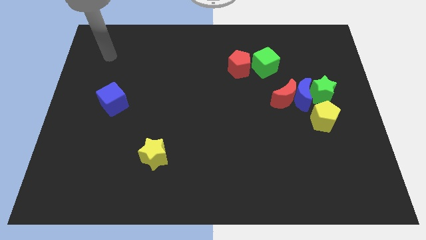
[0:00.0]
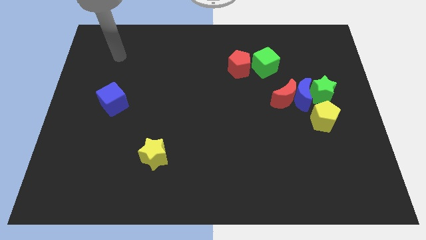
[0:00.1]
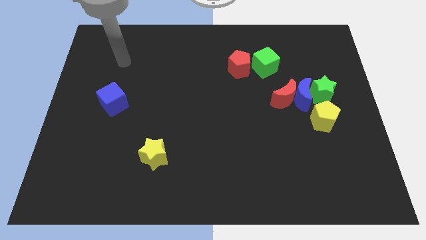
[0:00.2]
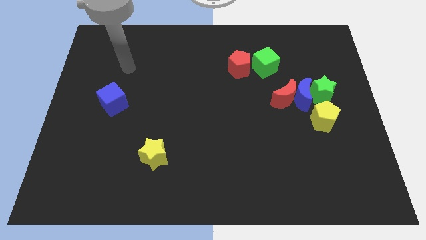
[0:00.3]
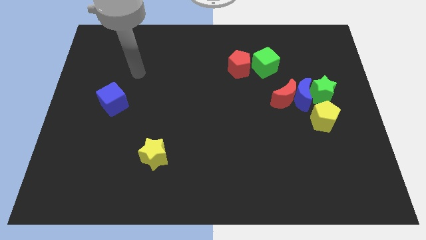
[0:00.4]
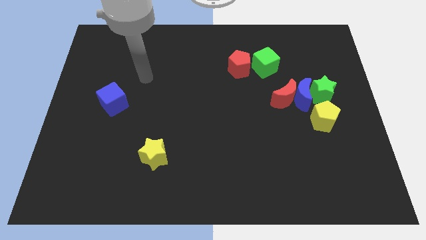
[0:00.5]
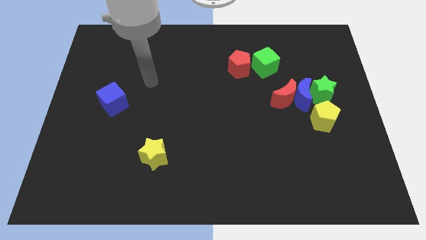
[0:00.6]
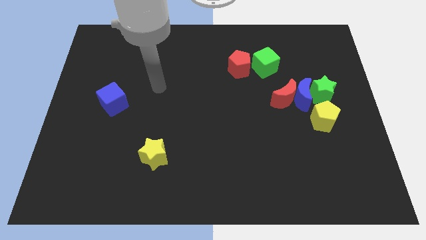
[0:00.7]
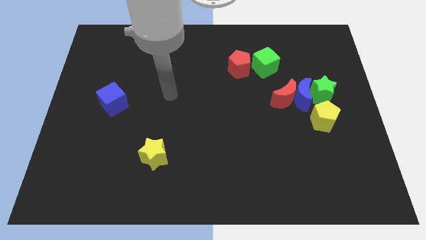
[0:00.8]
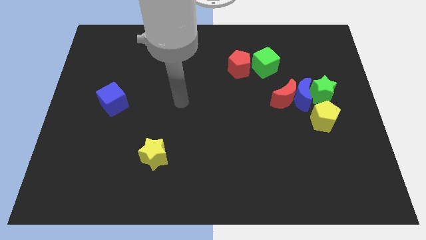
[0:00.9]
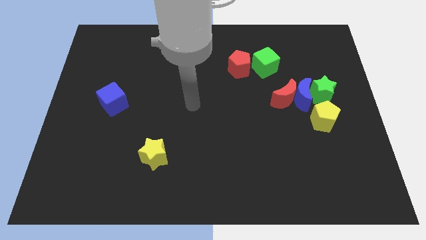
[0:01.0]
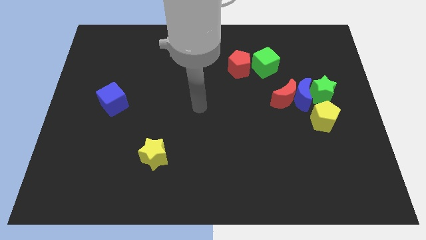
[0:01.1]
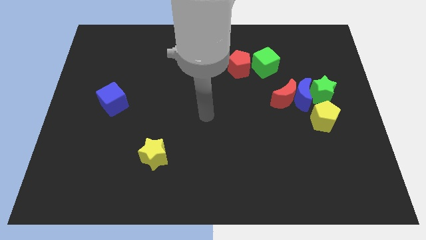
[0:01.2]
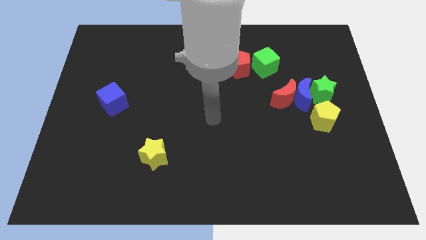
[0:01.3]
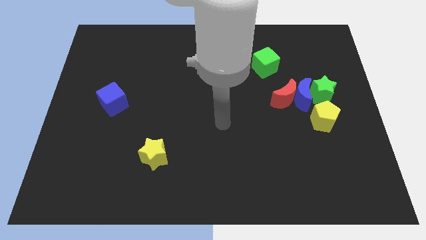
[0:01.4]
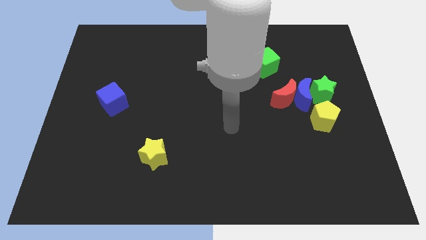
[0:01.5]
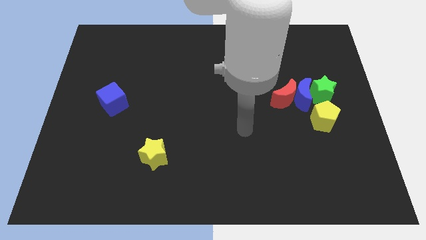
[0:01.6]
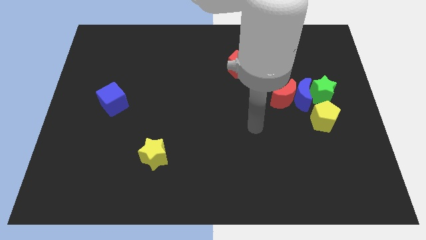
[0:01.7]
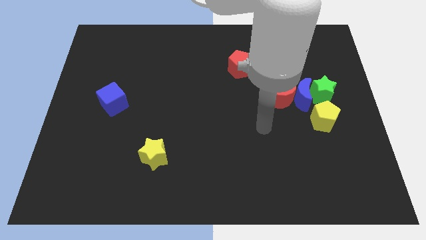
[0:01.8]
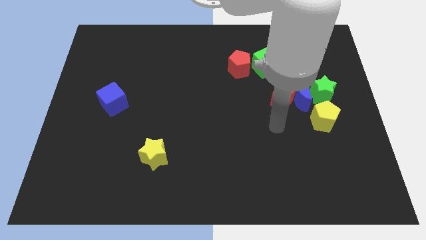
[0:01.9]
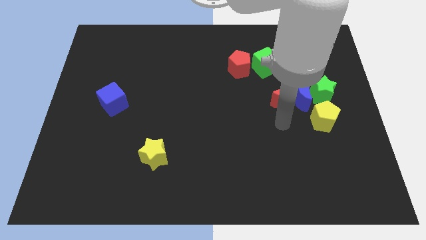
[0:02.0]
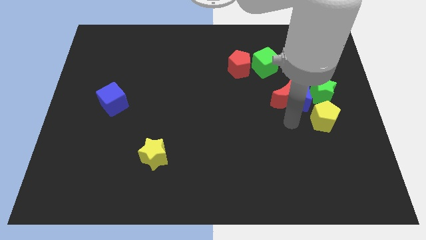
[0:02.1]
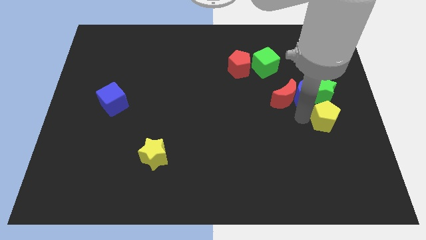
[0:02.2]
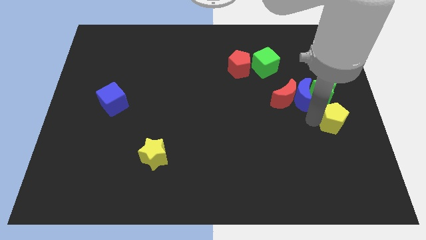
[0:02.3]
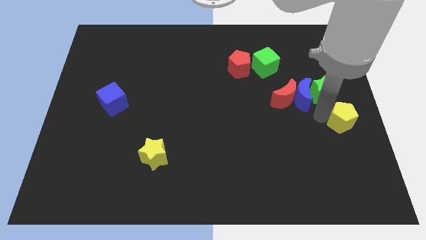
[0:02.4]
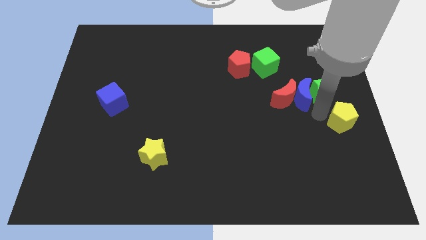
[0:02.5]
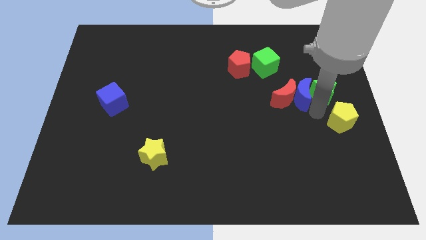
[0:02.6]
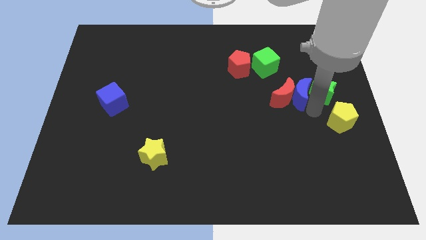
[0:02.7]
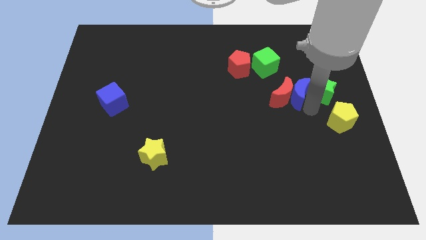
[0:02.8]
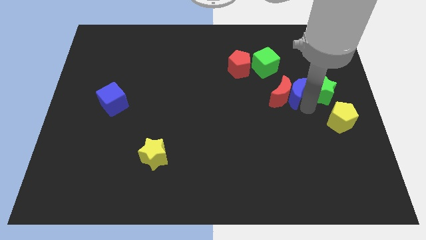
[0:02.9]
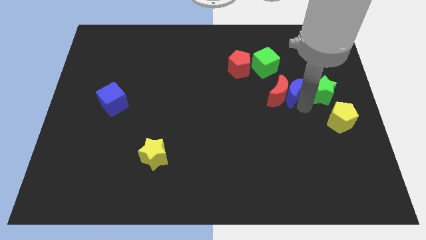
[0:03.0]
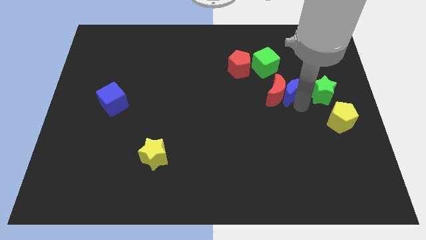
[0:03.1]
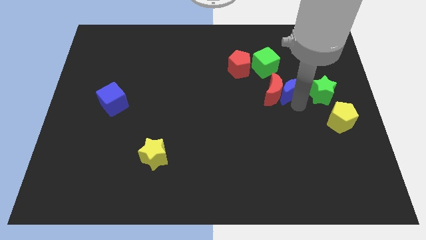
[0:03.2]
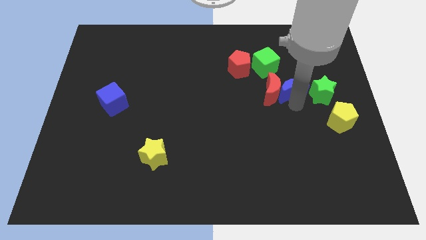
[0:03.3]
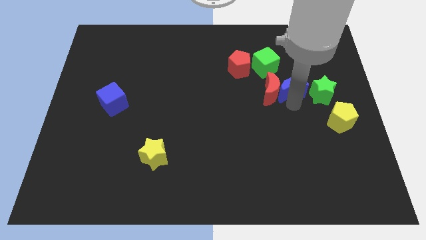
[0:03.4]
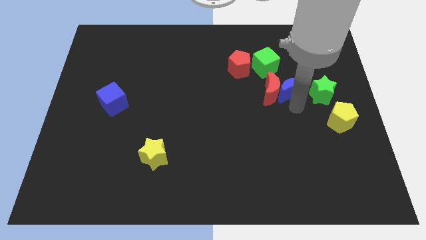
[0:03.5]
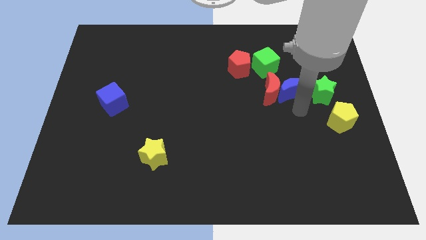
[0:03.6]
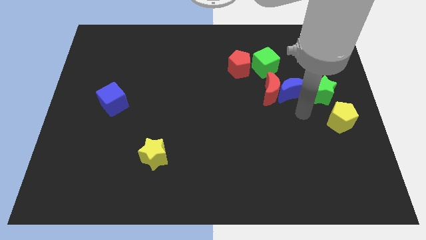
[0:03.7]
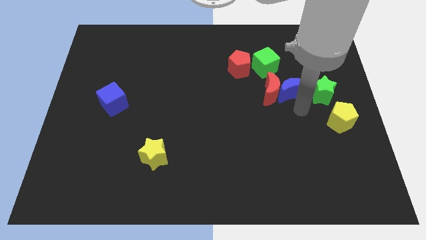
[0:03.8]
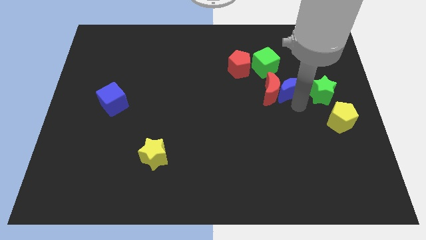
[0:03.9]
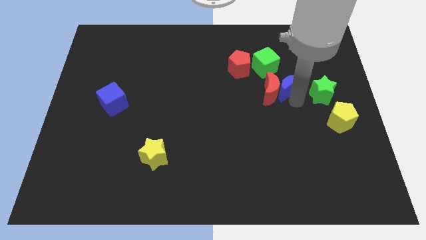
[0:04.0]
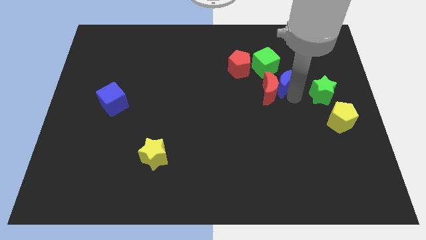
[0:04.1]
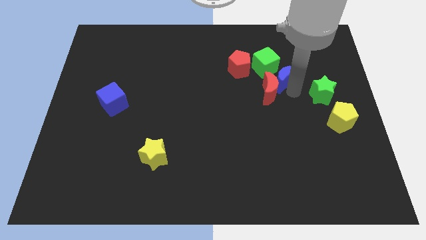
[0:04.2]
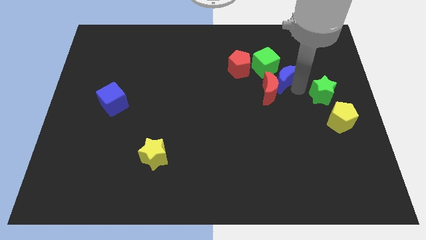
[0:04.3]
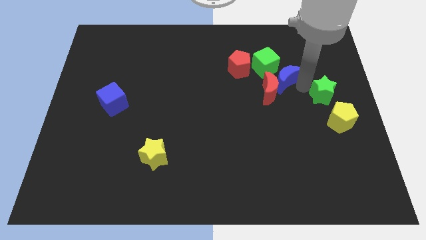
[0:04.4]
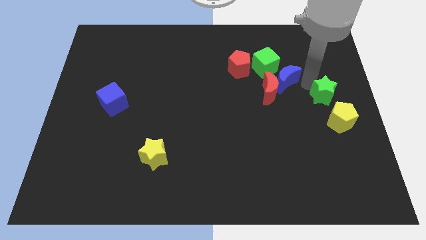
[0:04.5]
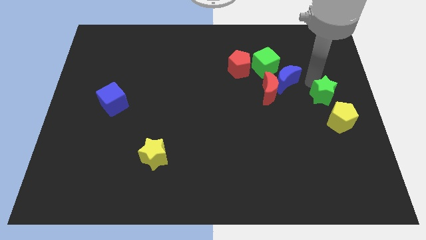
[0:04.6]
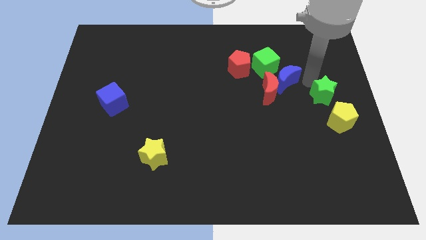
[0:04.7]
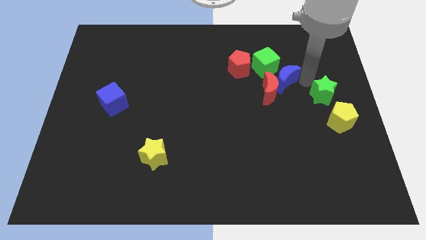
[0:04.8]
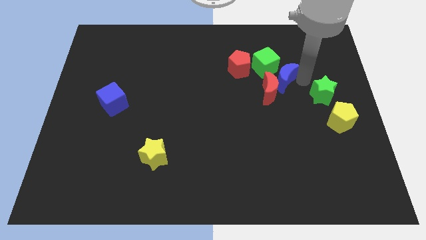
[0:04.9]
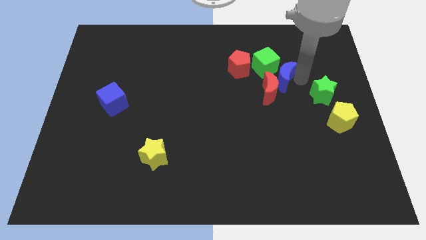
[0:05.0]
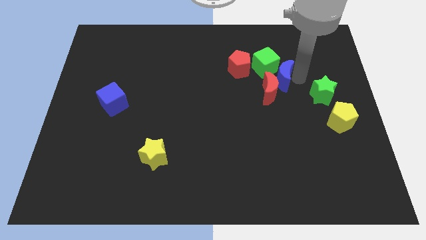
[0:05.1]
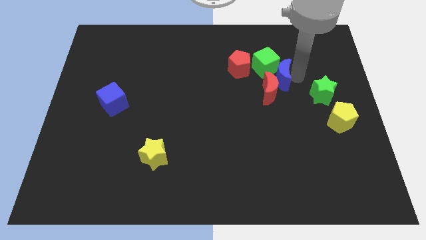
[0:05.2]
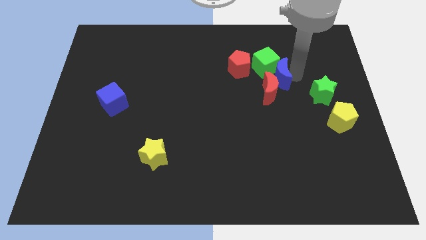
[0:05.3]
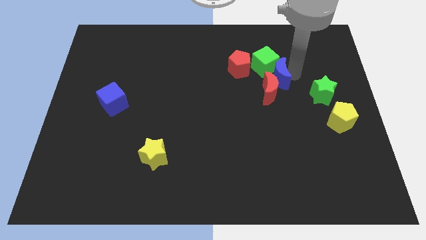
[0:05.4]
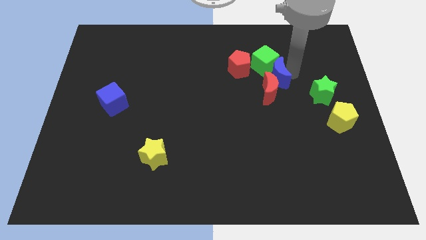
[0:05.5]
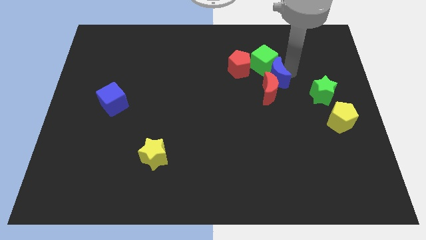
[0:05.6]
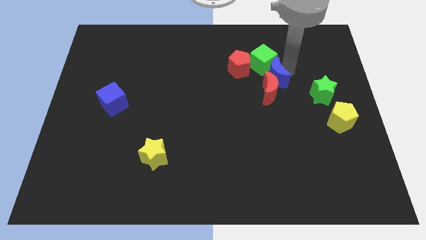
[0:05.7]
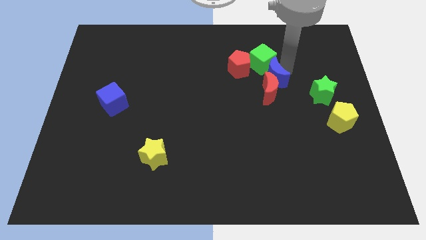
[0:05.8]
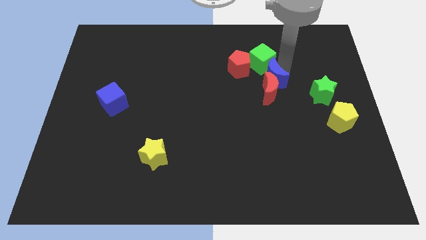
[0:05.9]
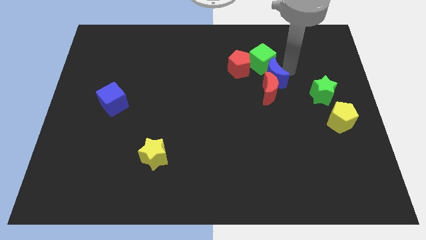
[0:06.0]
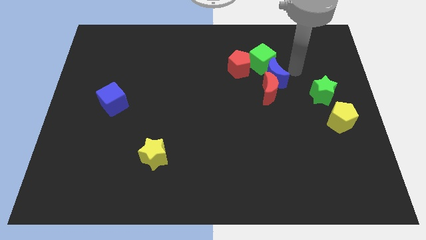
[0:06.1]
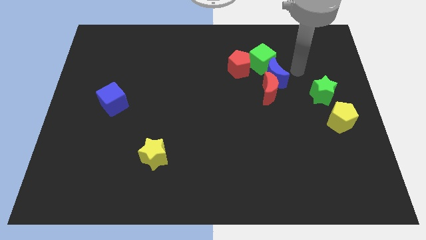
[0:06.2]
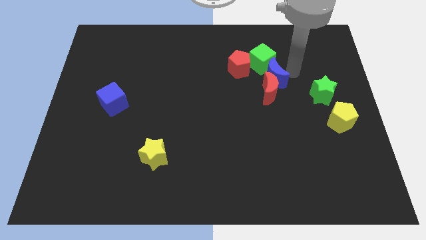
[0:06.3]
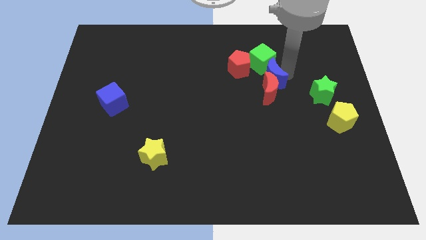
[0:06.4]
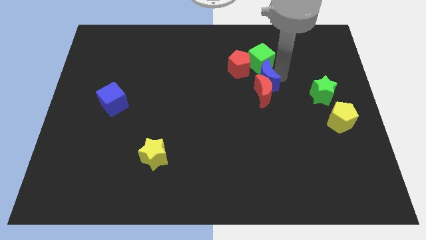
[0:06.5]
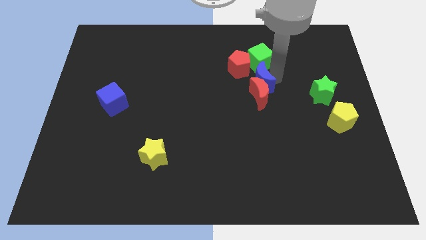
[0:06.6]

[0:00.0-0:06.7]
move the blue moon a bit to the left

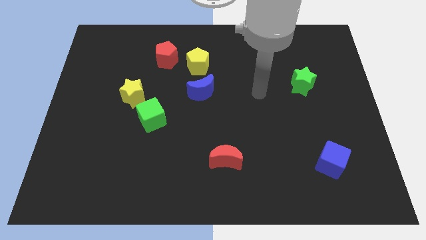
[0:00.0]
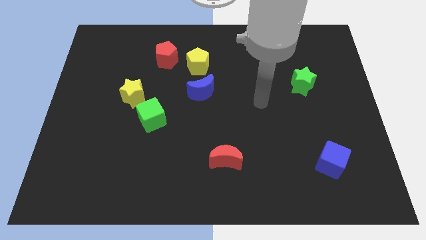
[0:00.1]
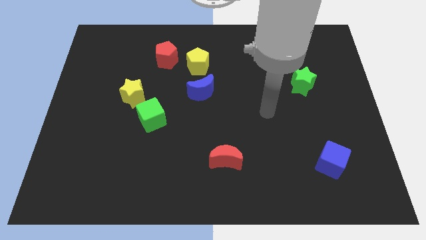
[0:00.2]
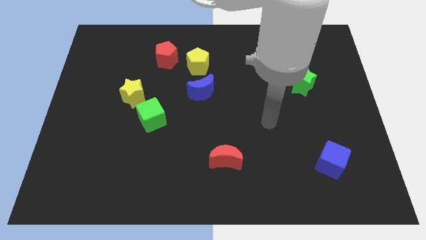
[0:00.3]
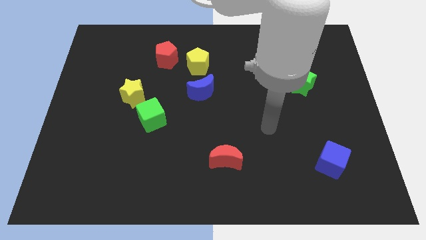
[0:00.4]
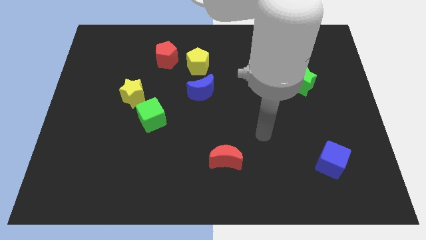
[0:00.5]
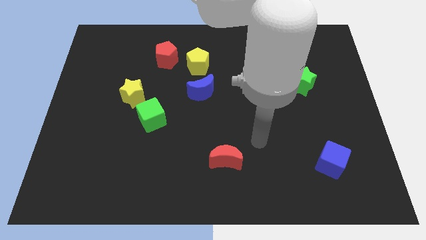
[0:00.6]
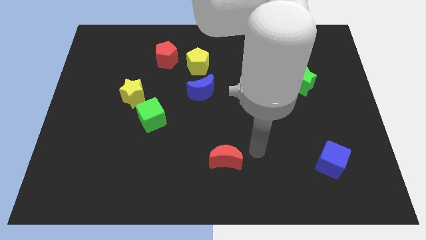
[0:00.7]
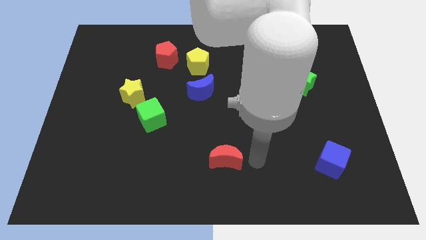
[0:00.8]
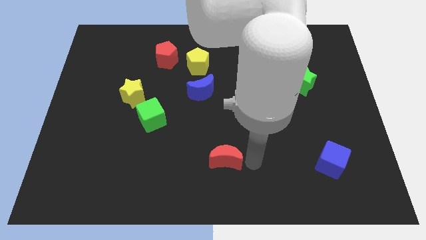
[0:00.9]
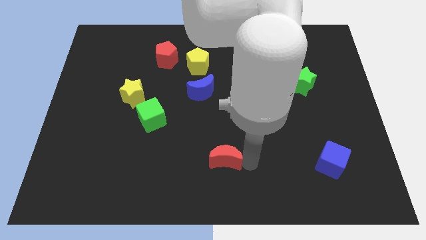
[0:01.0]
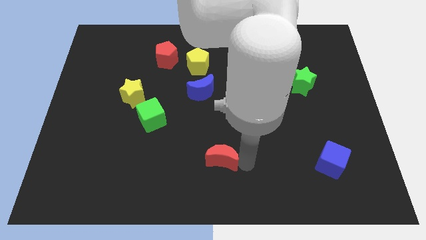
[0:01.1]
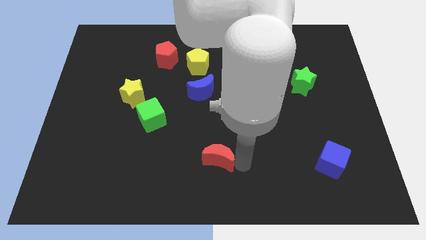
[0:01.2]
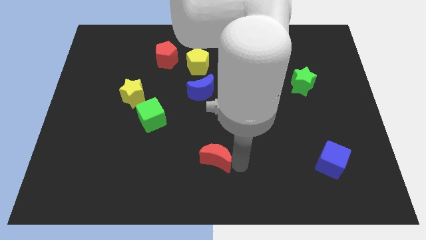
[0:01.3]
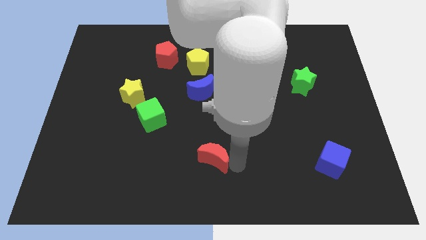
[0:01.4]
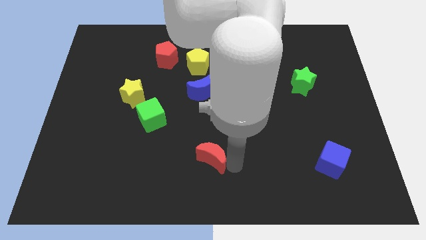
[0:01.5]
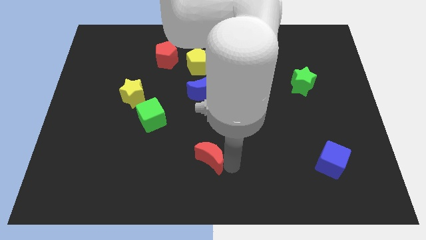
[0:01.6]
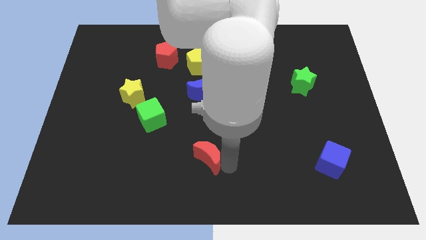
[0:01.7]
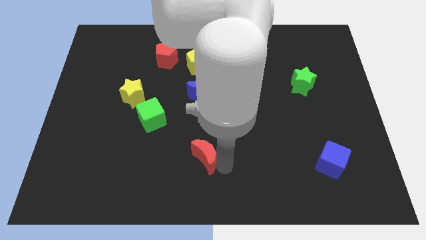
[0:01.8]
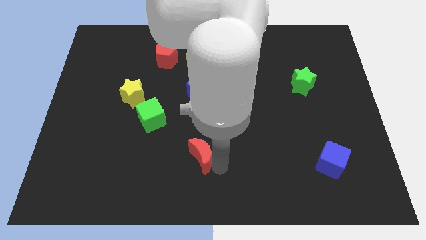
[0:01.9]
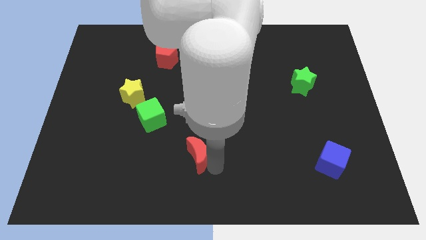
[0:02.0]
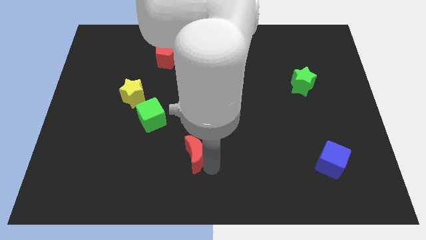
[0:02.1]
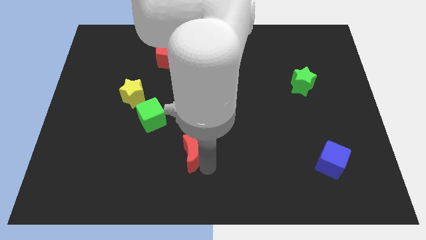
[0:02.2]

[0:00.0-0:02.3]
push the red moon left slightly
